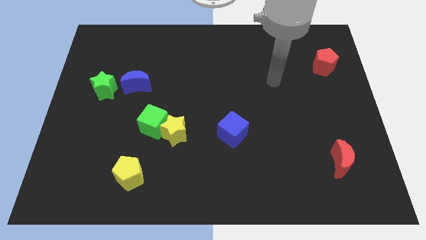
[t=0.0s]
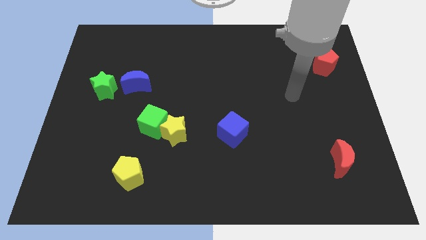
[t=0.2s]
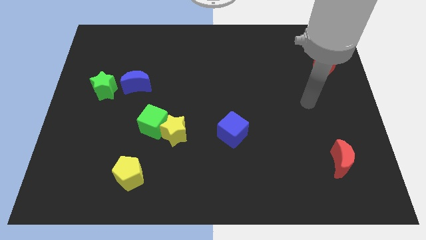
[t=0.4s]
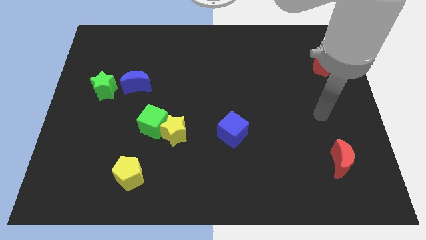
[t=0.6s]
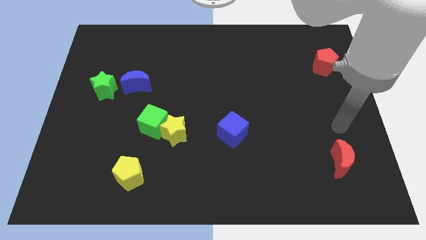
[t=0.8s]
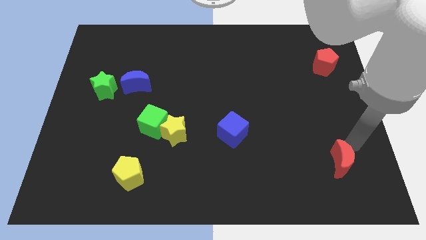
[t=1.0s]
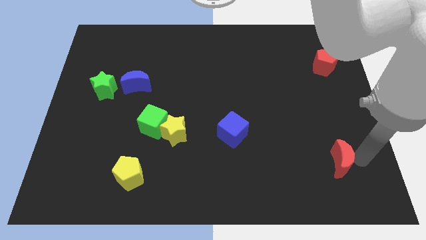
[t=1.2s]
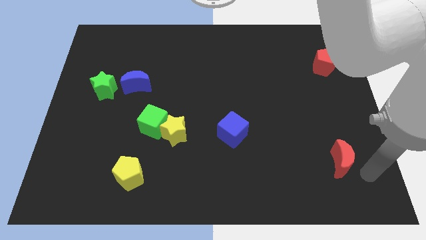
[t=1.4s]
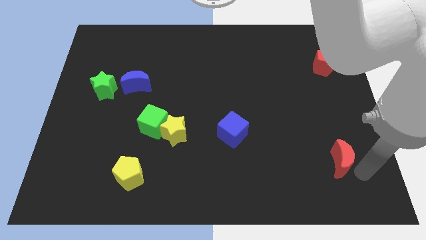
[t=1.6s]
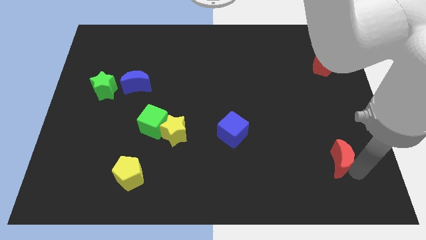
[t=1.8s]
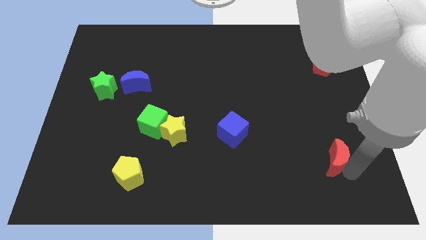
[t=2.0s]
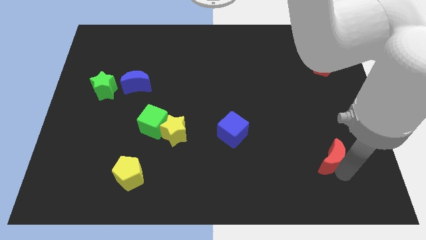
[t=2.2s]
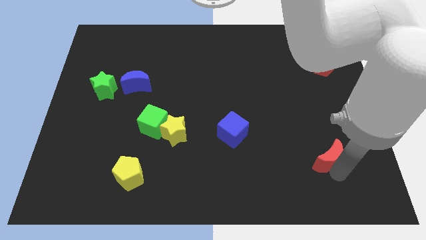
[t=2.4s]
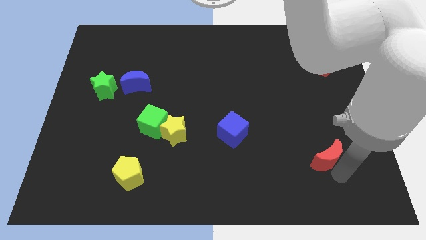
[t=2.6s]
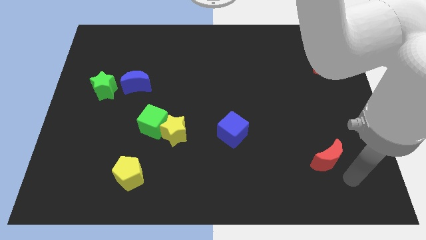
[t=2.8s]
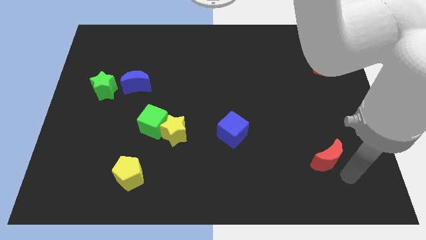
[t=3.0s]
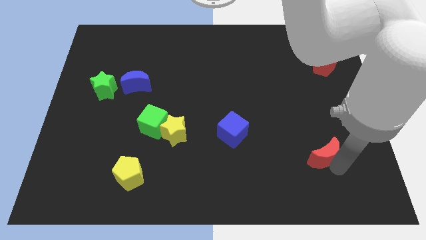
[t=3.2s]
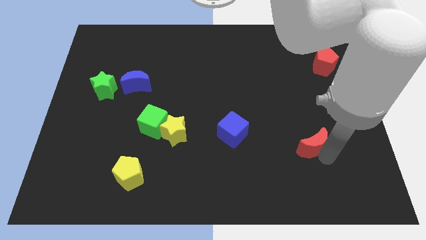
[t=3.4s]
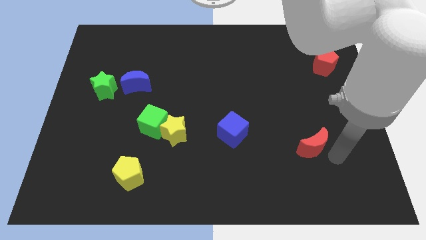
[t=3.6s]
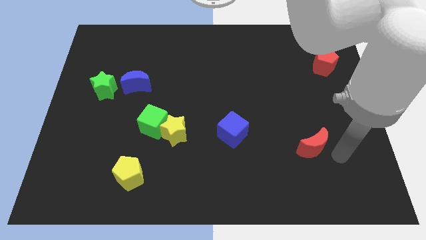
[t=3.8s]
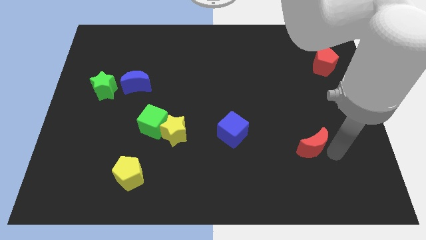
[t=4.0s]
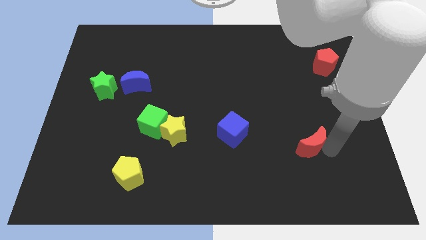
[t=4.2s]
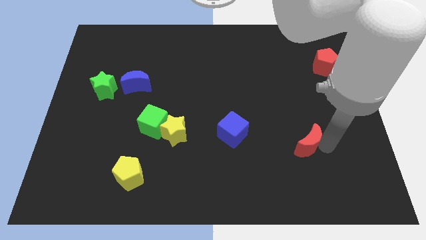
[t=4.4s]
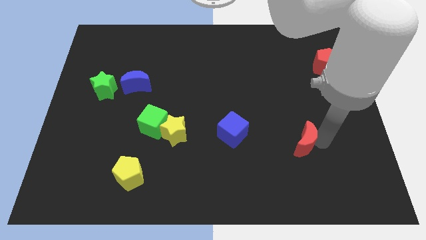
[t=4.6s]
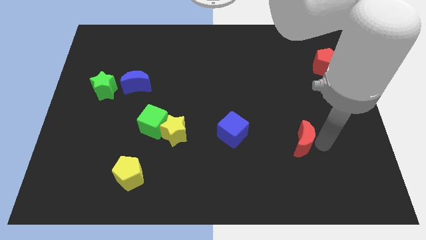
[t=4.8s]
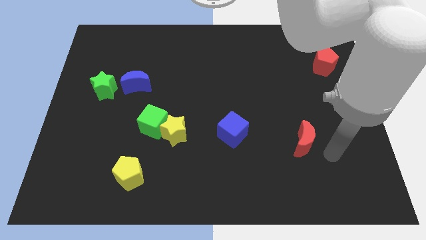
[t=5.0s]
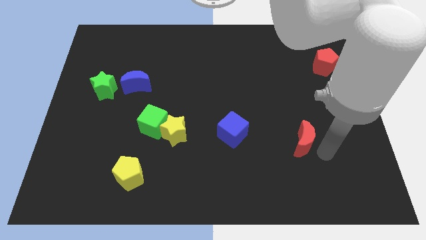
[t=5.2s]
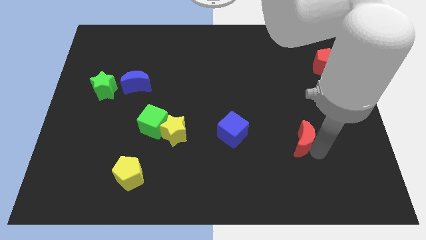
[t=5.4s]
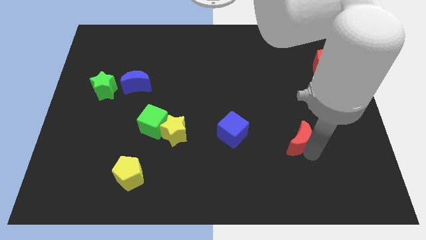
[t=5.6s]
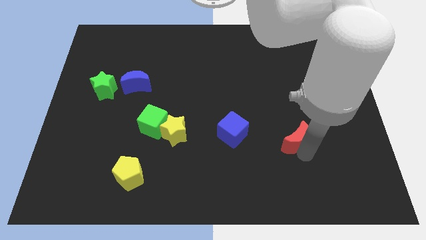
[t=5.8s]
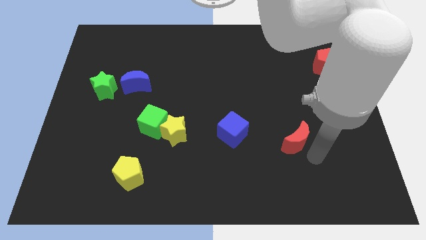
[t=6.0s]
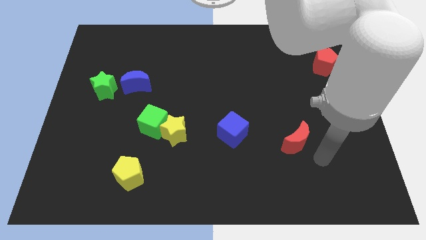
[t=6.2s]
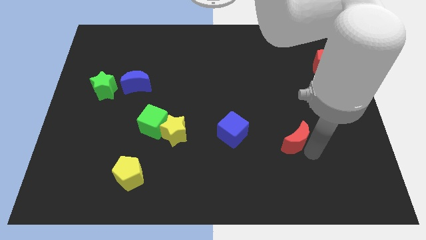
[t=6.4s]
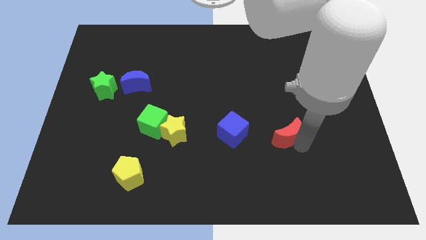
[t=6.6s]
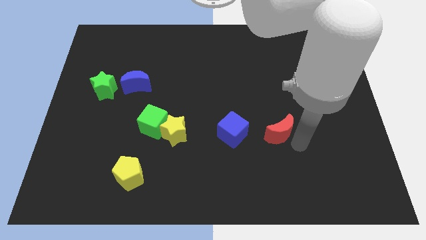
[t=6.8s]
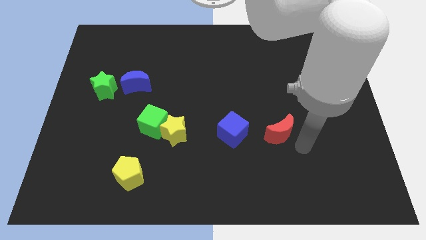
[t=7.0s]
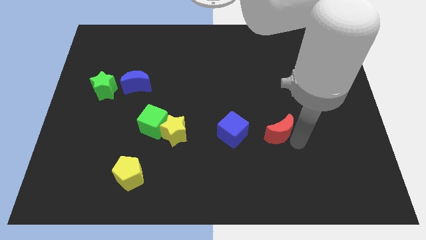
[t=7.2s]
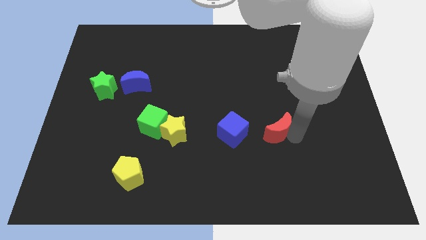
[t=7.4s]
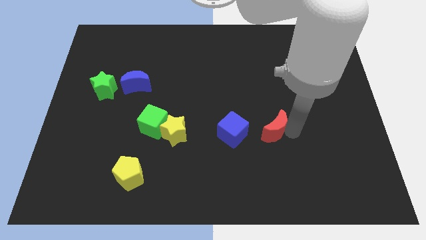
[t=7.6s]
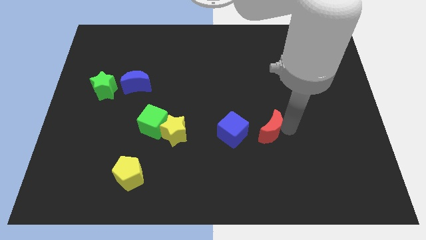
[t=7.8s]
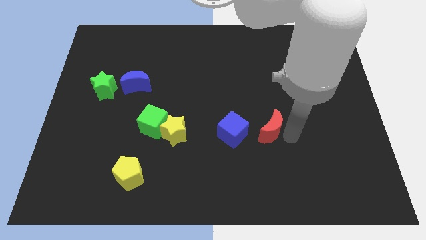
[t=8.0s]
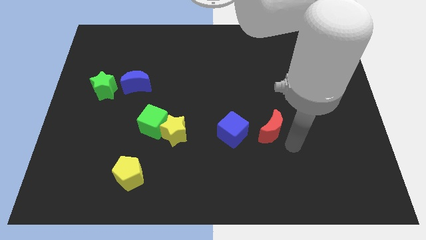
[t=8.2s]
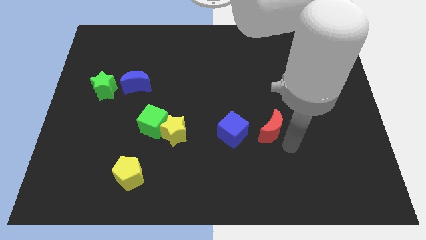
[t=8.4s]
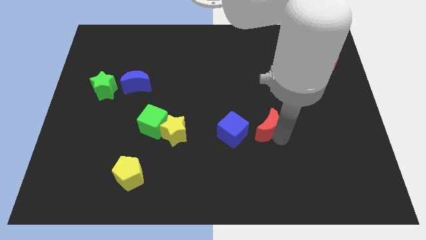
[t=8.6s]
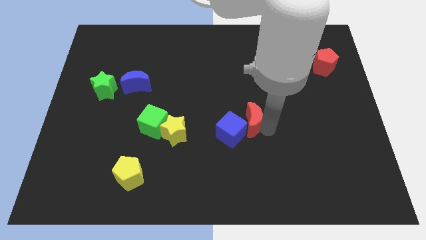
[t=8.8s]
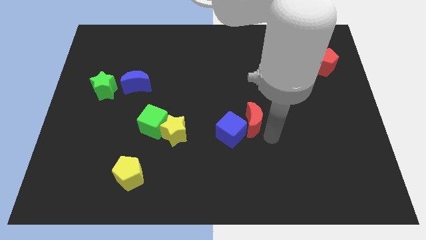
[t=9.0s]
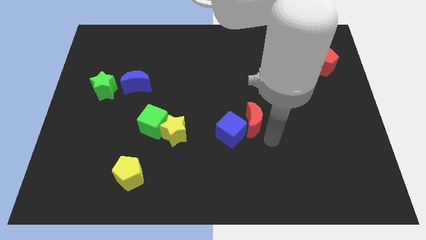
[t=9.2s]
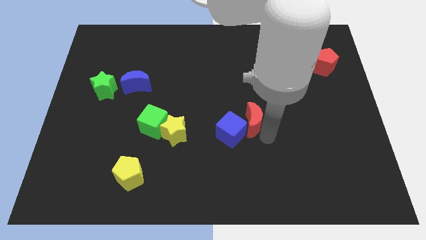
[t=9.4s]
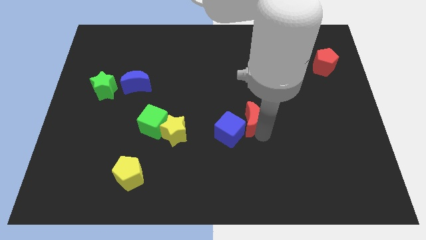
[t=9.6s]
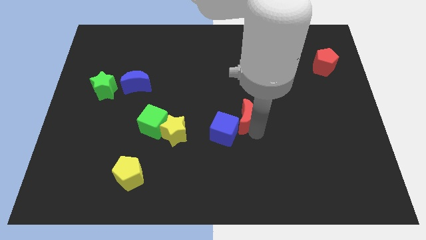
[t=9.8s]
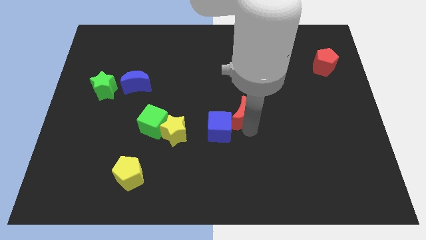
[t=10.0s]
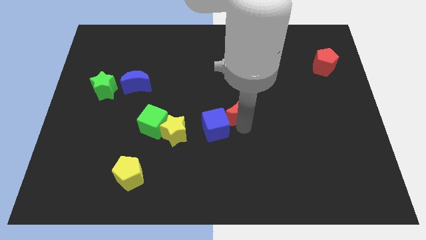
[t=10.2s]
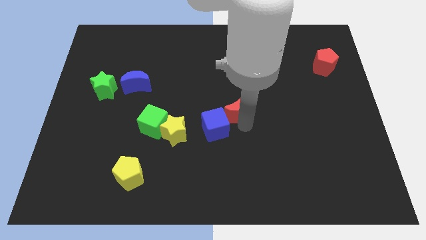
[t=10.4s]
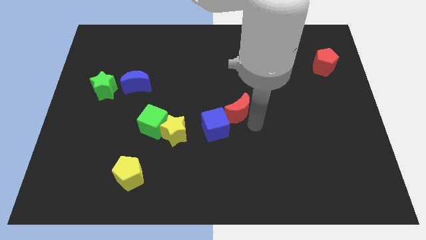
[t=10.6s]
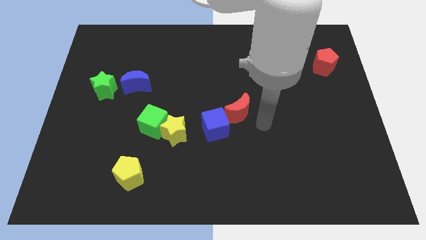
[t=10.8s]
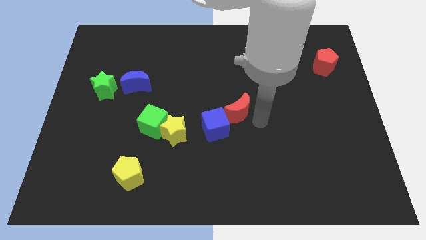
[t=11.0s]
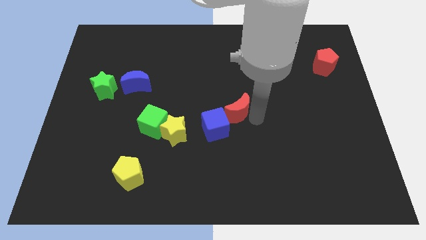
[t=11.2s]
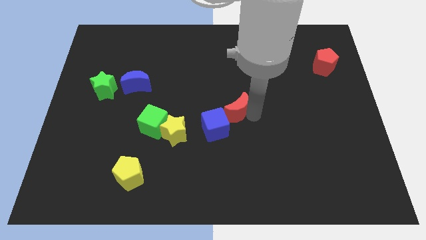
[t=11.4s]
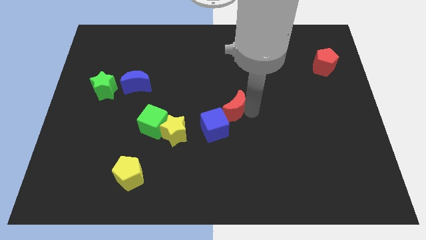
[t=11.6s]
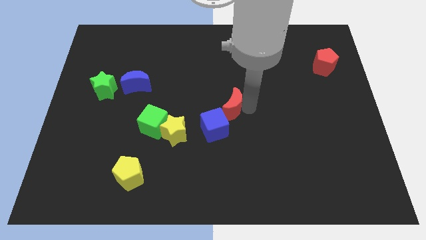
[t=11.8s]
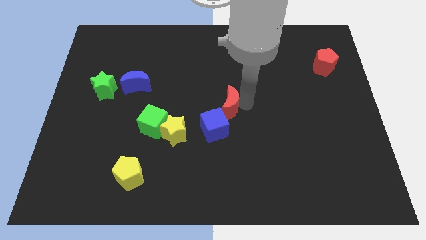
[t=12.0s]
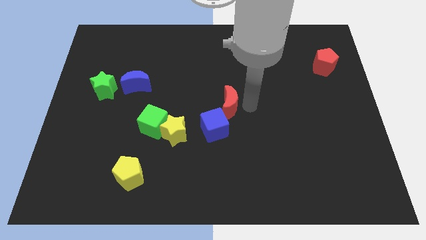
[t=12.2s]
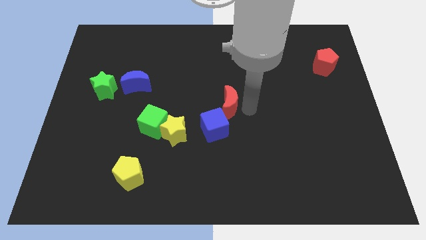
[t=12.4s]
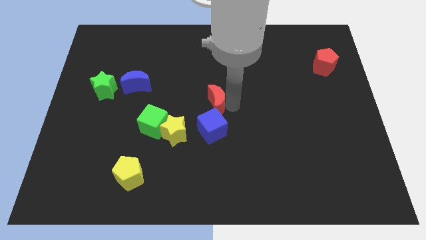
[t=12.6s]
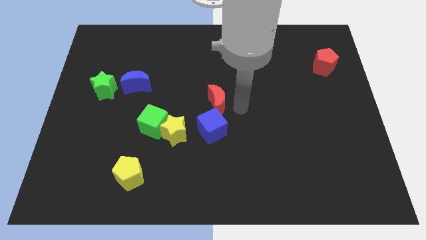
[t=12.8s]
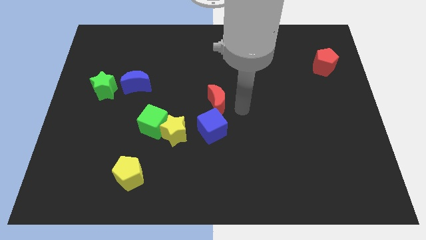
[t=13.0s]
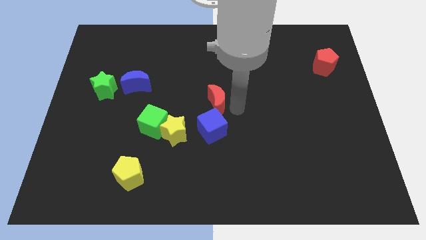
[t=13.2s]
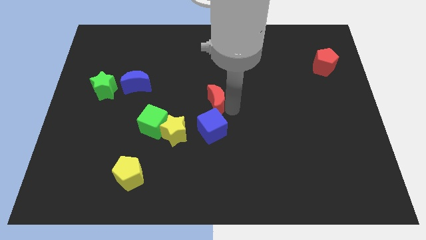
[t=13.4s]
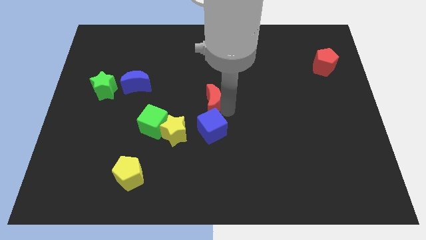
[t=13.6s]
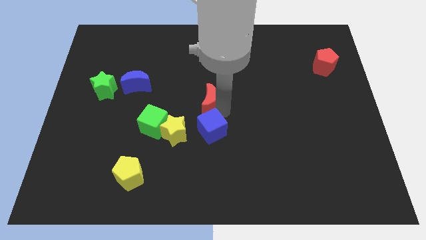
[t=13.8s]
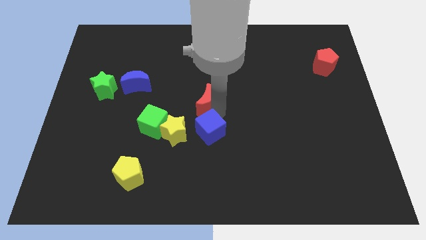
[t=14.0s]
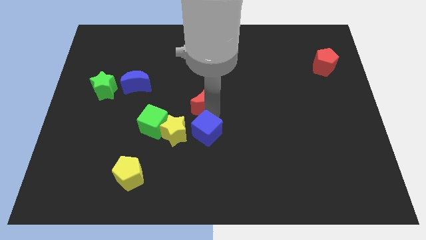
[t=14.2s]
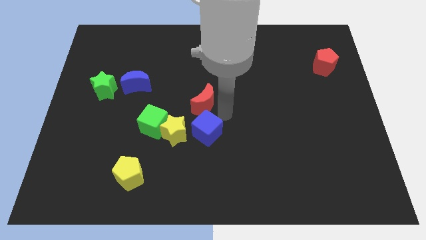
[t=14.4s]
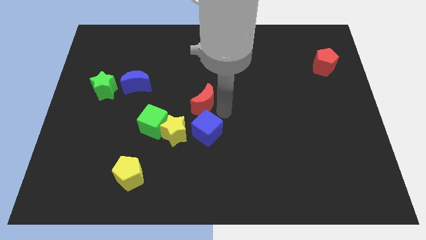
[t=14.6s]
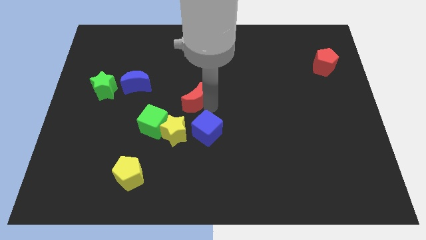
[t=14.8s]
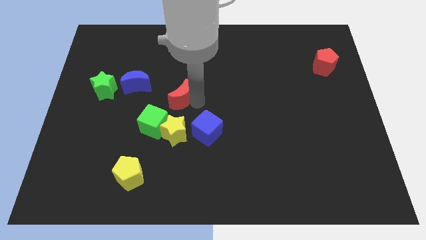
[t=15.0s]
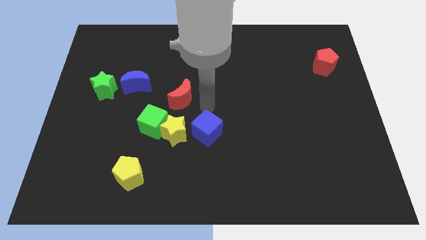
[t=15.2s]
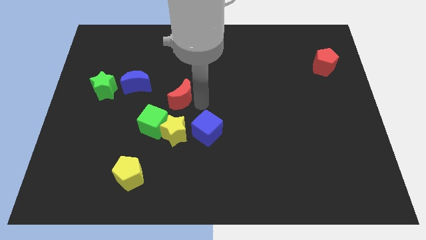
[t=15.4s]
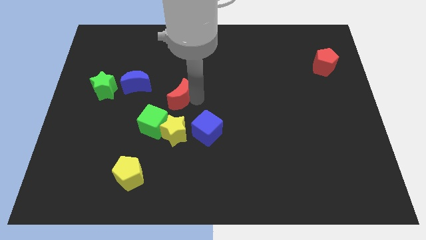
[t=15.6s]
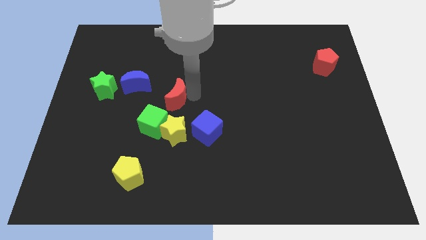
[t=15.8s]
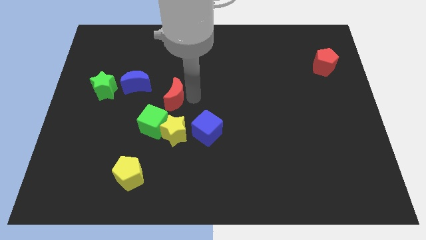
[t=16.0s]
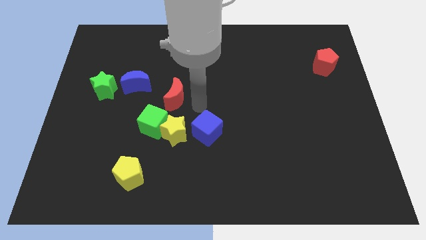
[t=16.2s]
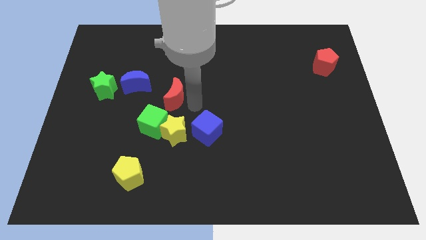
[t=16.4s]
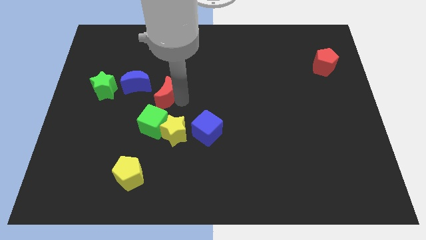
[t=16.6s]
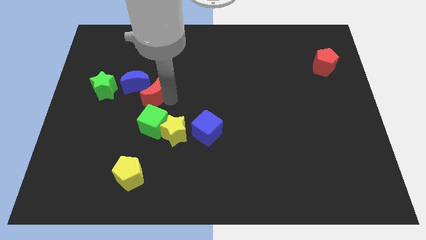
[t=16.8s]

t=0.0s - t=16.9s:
slide the red moon to the blue moon
